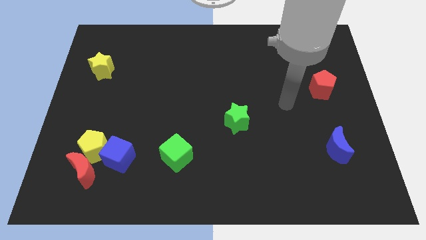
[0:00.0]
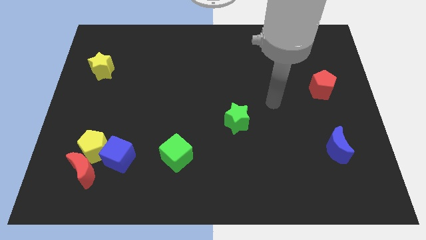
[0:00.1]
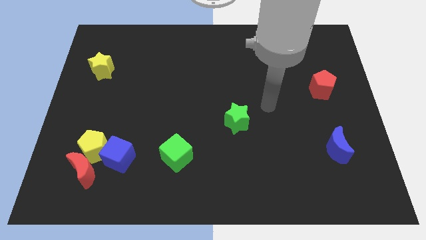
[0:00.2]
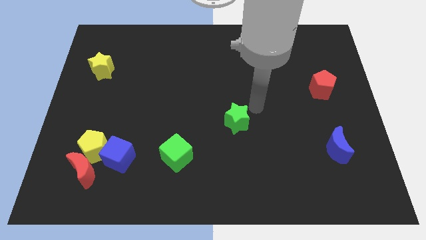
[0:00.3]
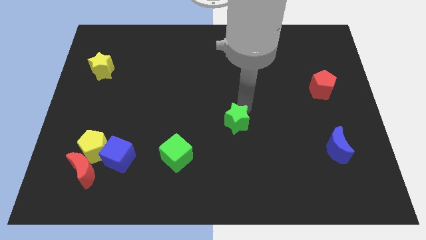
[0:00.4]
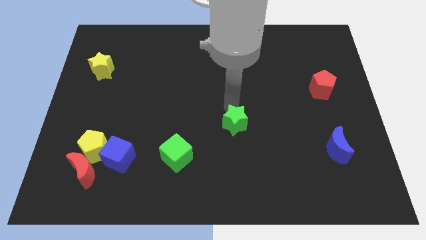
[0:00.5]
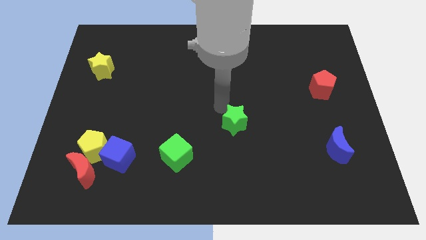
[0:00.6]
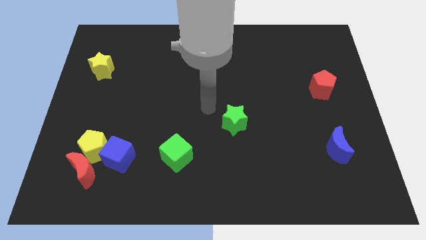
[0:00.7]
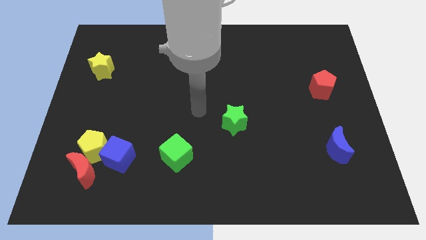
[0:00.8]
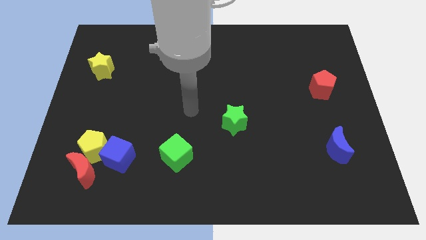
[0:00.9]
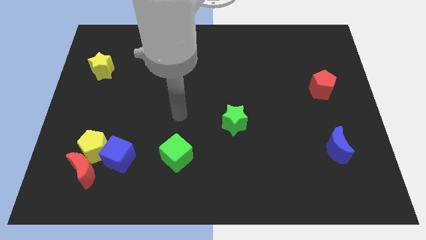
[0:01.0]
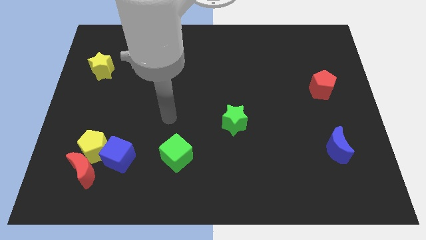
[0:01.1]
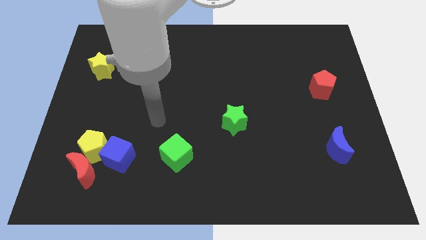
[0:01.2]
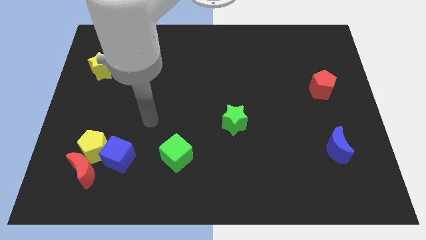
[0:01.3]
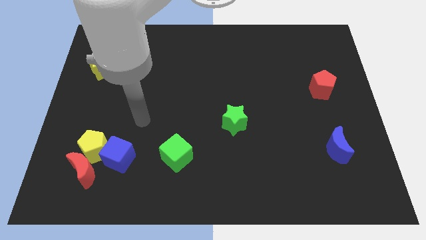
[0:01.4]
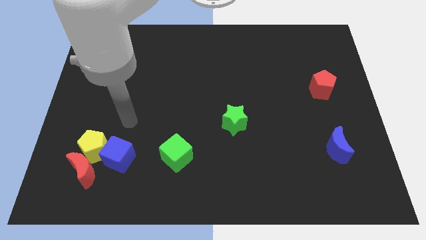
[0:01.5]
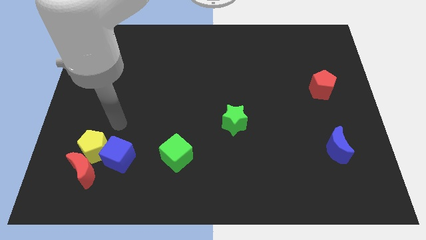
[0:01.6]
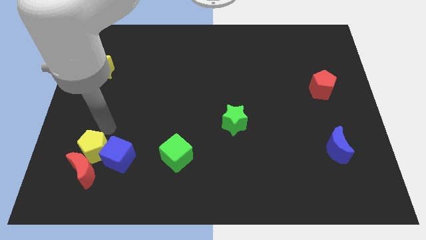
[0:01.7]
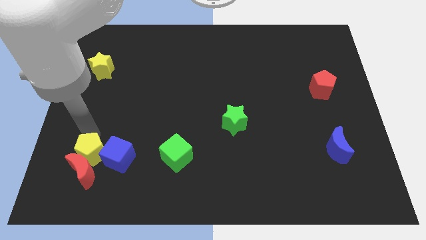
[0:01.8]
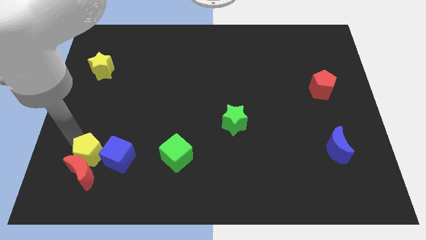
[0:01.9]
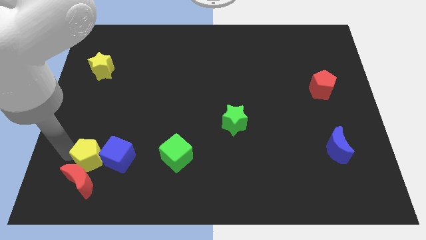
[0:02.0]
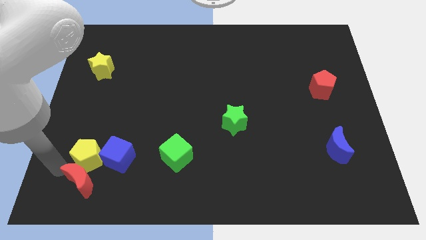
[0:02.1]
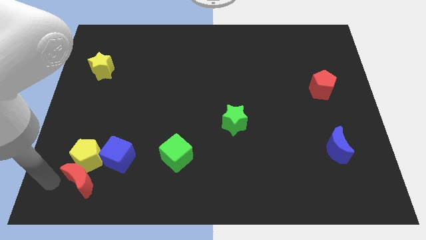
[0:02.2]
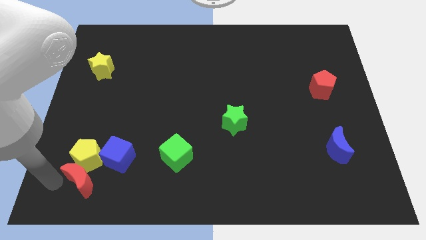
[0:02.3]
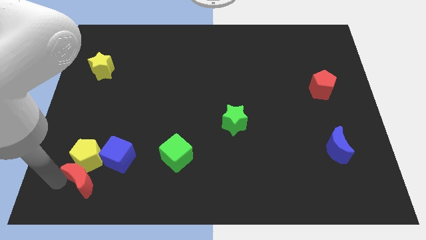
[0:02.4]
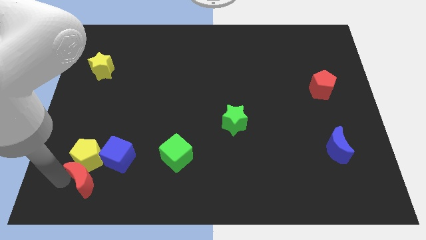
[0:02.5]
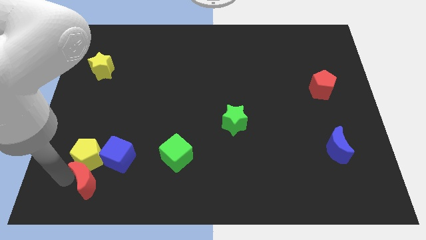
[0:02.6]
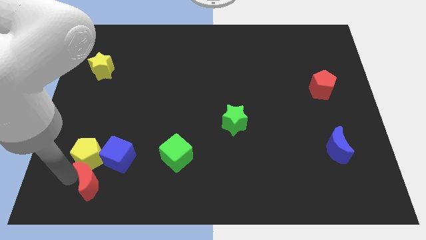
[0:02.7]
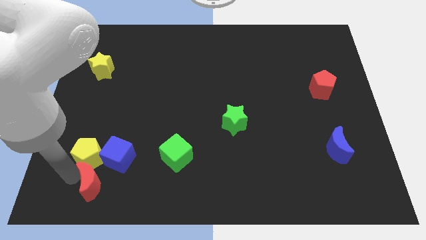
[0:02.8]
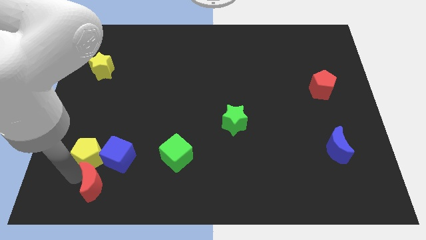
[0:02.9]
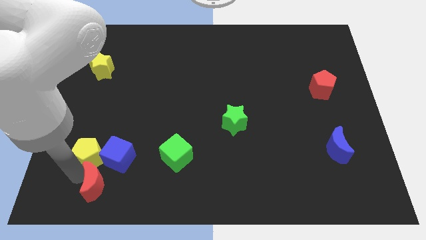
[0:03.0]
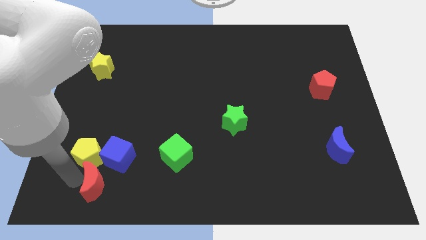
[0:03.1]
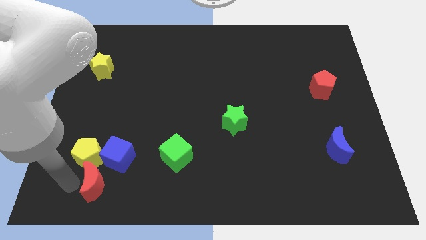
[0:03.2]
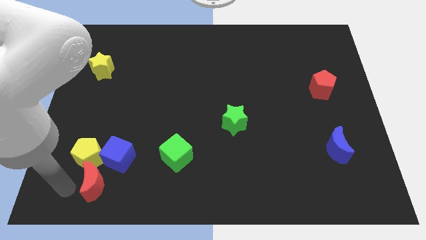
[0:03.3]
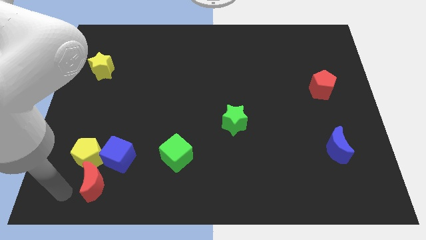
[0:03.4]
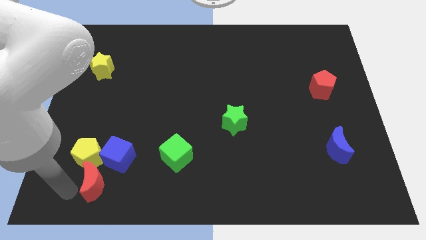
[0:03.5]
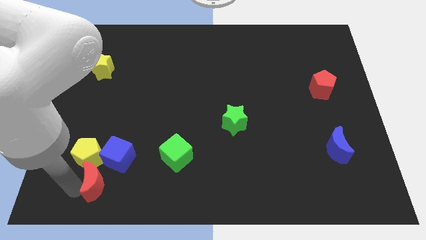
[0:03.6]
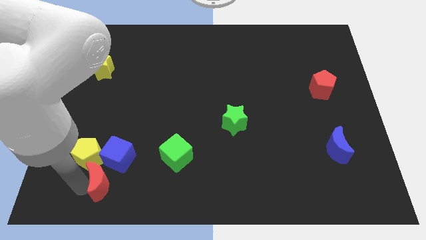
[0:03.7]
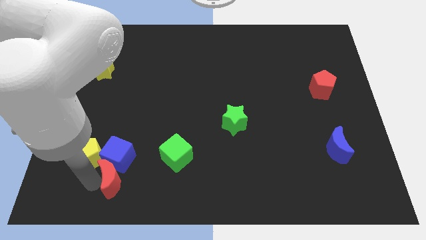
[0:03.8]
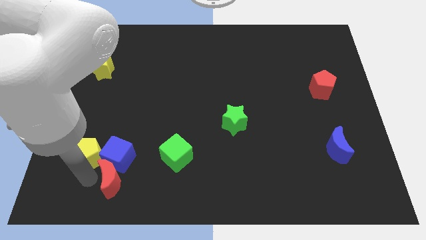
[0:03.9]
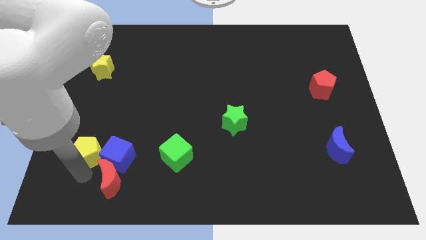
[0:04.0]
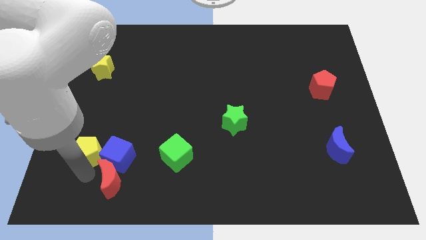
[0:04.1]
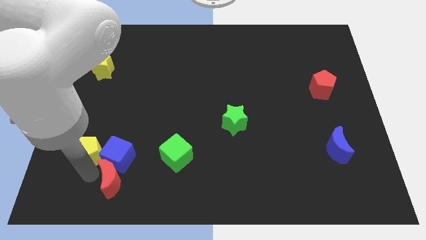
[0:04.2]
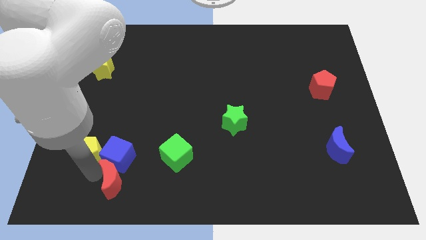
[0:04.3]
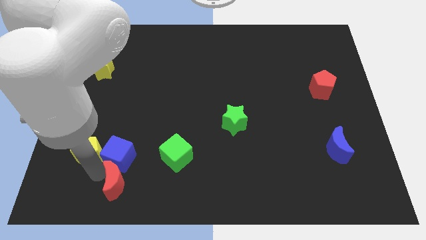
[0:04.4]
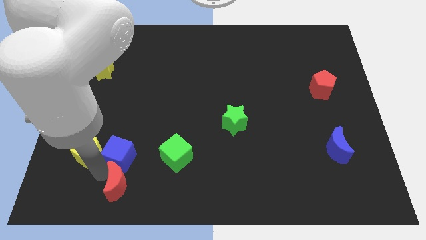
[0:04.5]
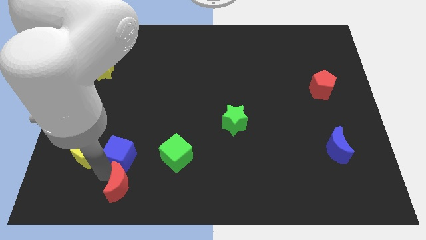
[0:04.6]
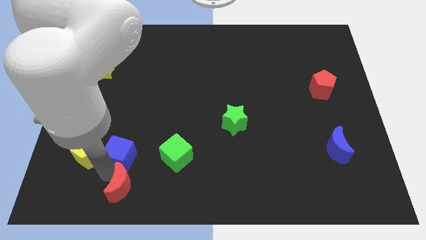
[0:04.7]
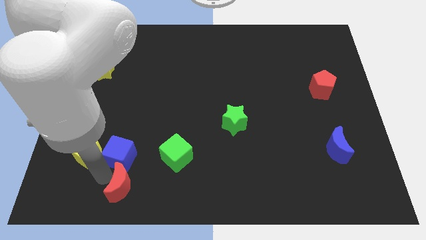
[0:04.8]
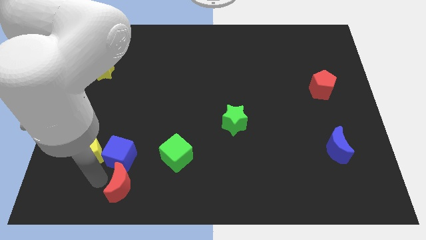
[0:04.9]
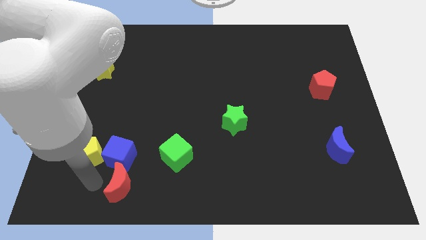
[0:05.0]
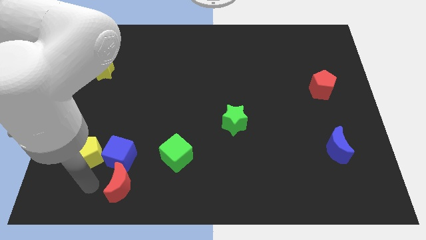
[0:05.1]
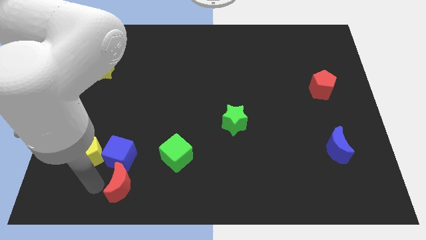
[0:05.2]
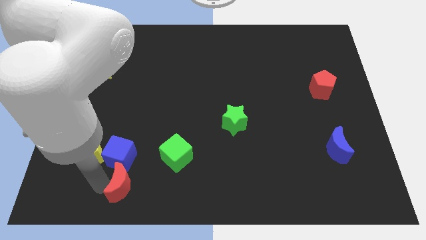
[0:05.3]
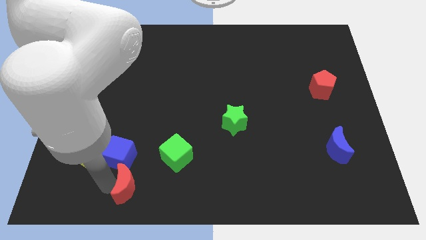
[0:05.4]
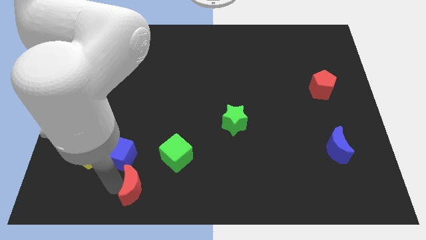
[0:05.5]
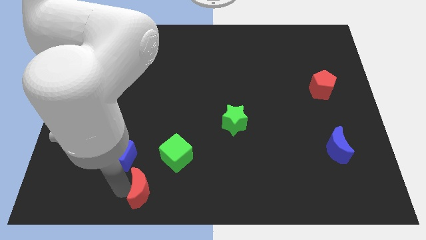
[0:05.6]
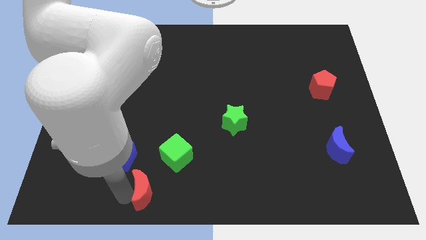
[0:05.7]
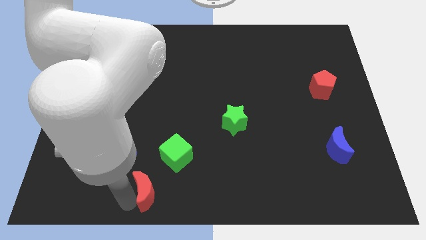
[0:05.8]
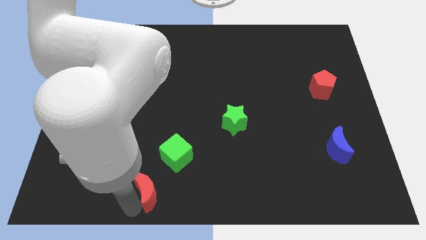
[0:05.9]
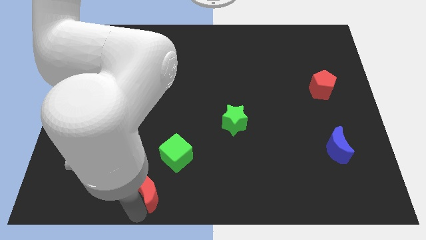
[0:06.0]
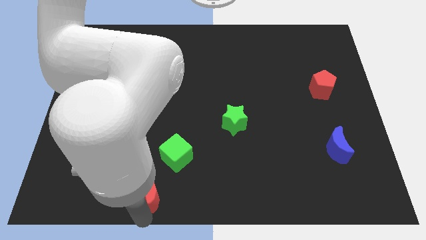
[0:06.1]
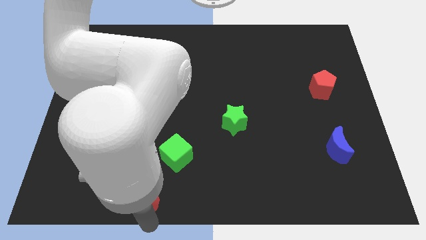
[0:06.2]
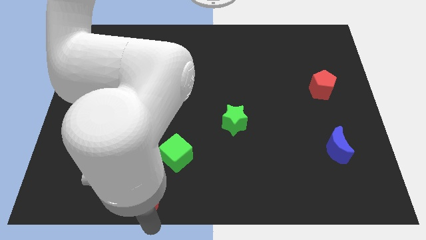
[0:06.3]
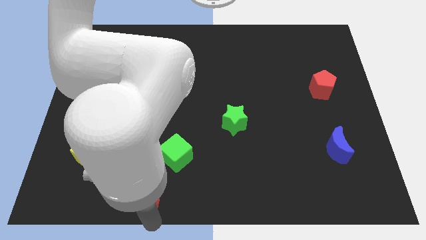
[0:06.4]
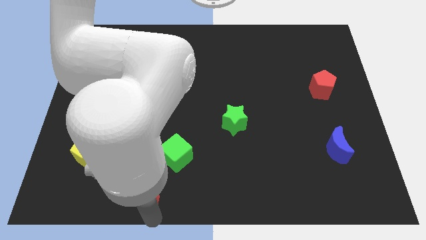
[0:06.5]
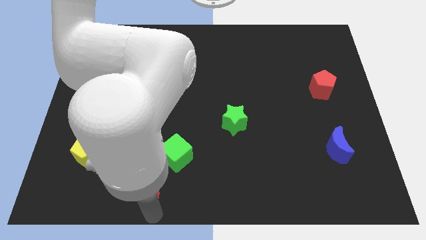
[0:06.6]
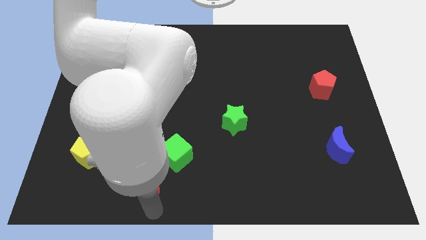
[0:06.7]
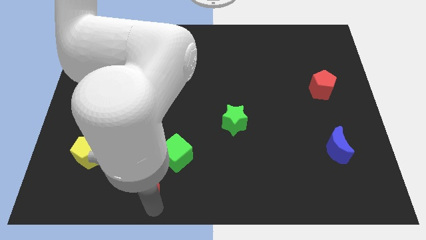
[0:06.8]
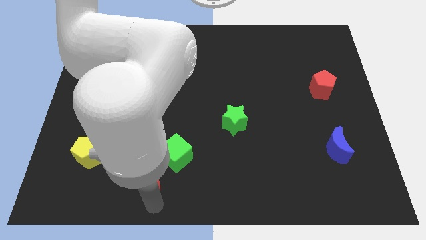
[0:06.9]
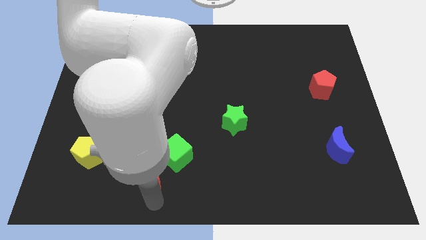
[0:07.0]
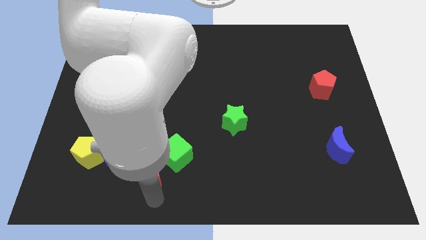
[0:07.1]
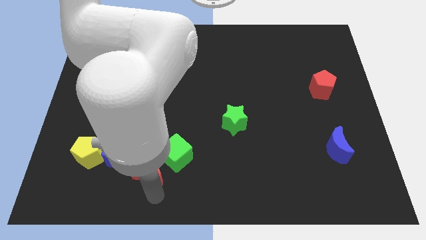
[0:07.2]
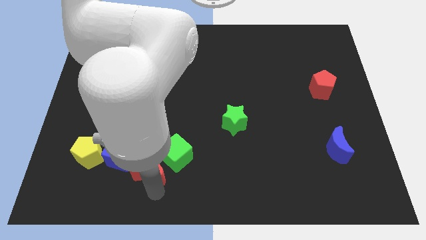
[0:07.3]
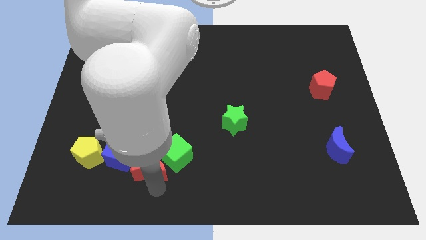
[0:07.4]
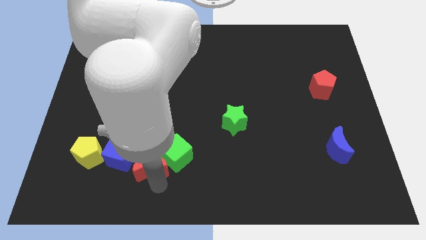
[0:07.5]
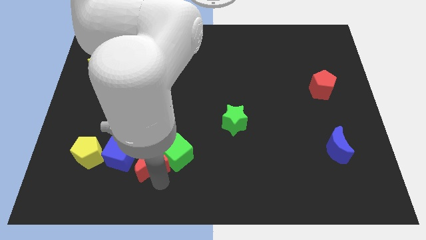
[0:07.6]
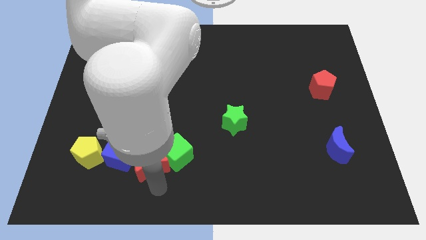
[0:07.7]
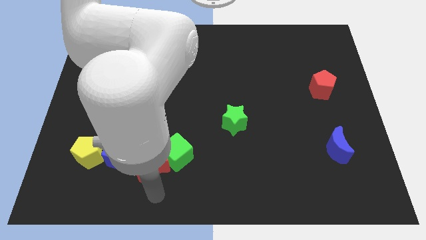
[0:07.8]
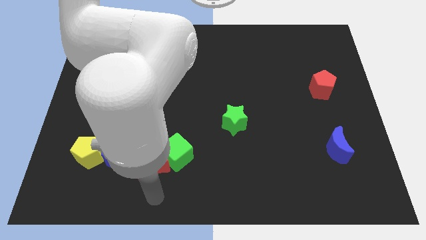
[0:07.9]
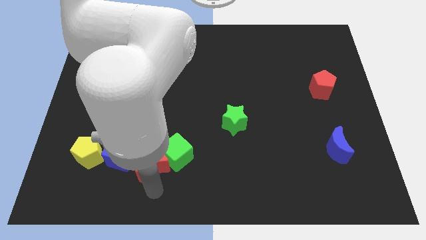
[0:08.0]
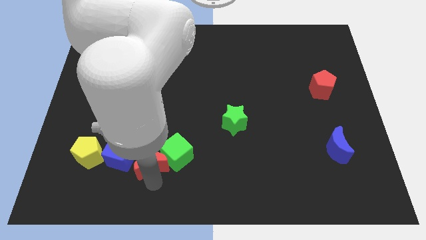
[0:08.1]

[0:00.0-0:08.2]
move the red moon up and then right a bit
